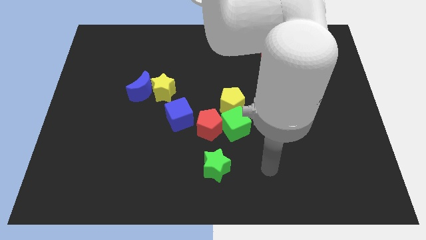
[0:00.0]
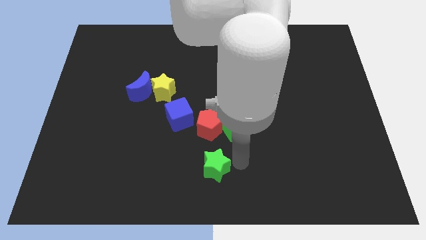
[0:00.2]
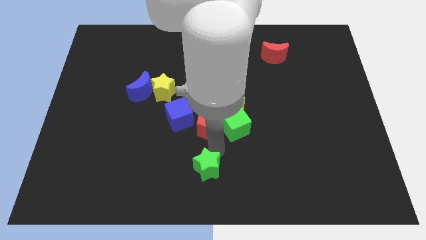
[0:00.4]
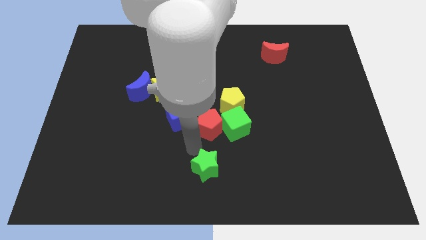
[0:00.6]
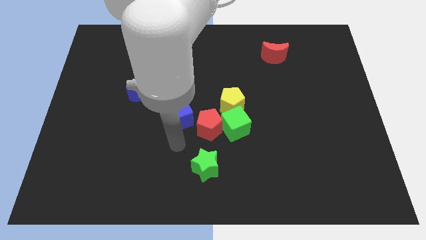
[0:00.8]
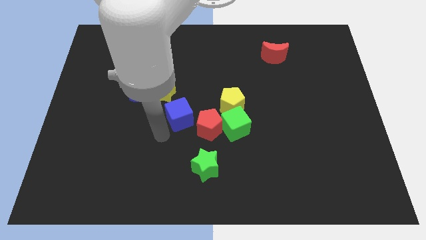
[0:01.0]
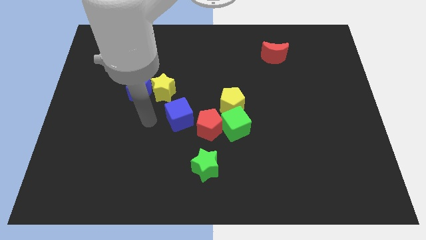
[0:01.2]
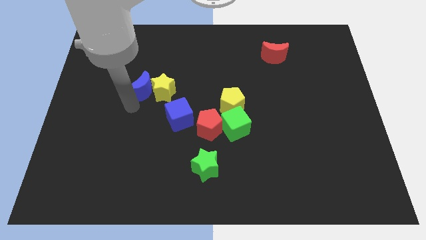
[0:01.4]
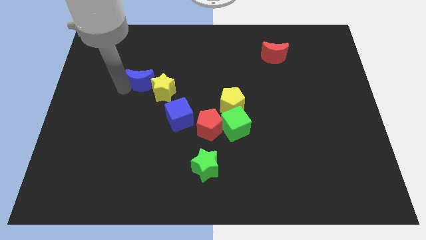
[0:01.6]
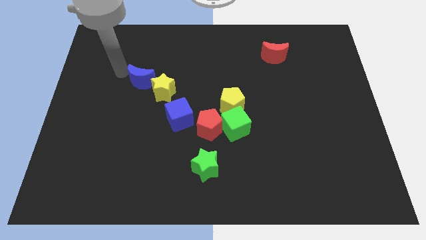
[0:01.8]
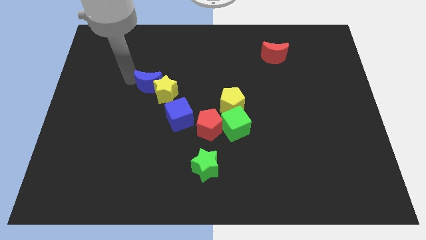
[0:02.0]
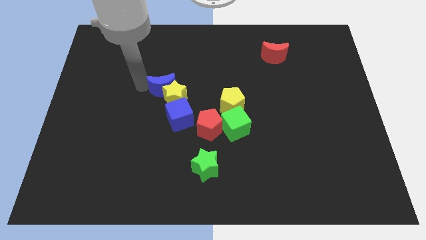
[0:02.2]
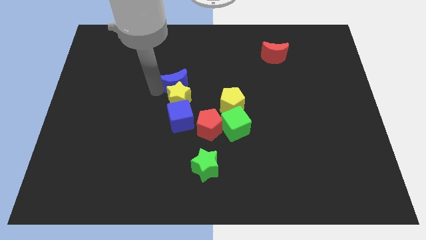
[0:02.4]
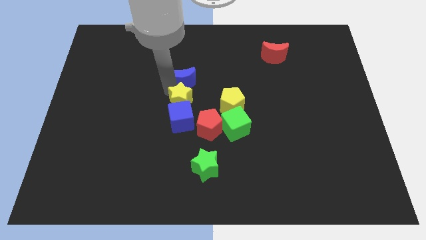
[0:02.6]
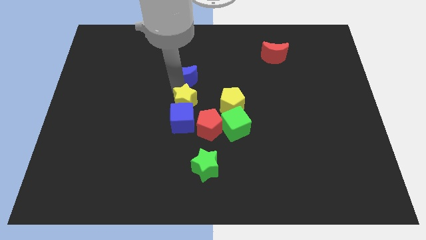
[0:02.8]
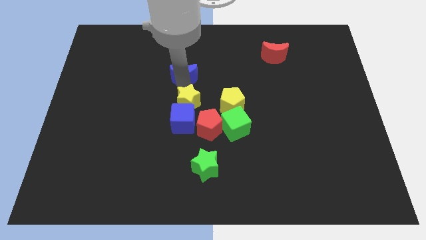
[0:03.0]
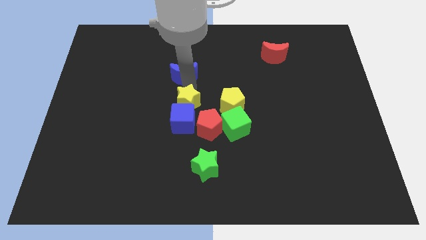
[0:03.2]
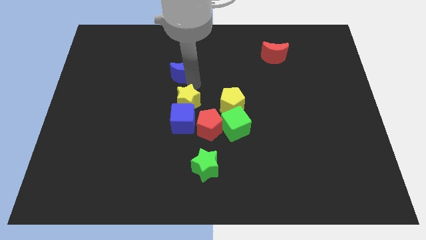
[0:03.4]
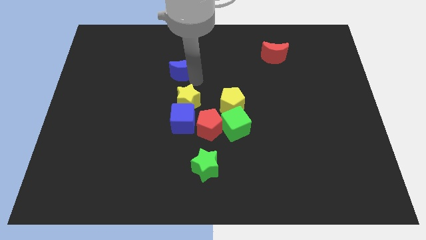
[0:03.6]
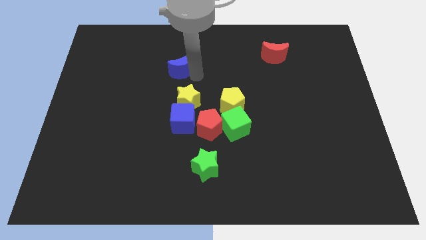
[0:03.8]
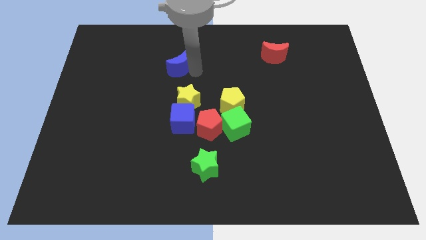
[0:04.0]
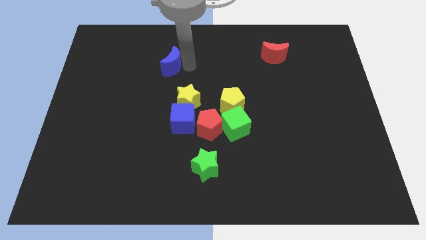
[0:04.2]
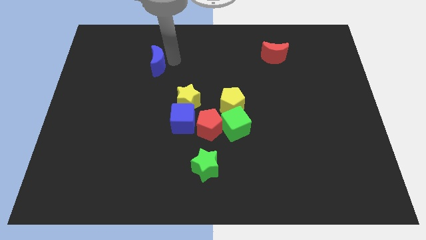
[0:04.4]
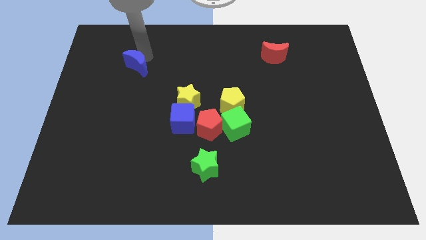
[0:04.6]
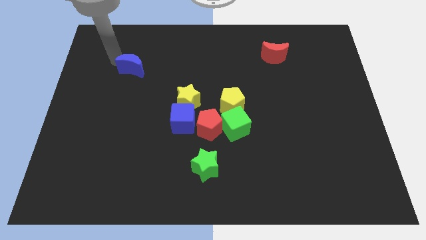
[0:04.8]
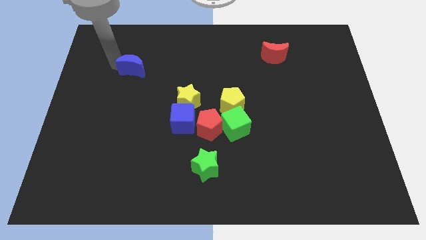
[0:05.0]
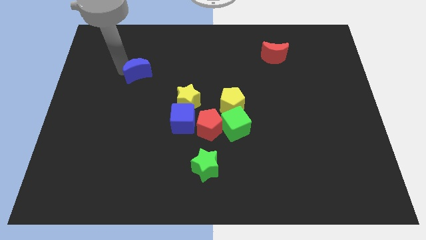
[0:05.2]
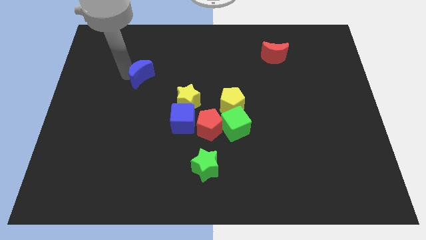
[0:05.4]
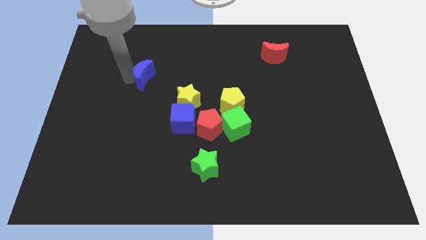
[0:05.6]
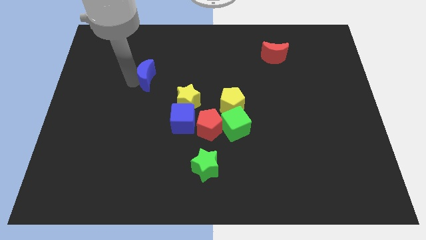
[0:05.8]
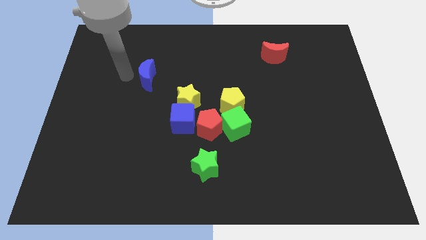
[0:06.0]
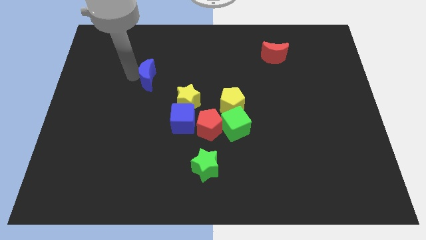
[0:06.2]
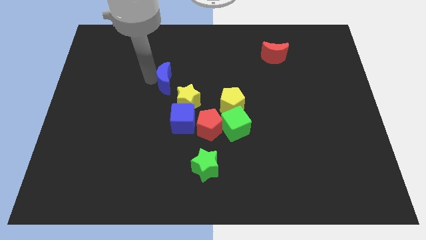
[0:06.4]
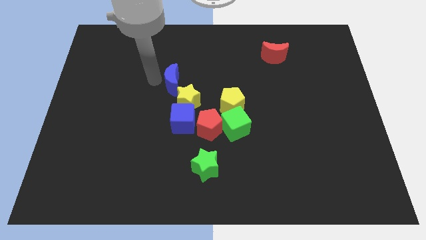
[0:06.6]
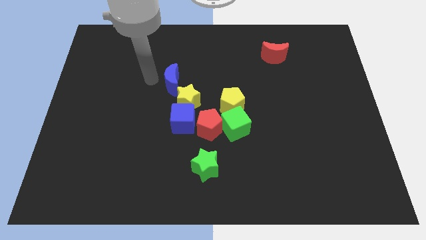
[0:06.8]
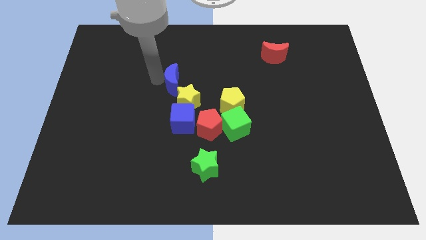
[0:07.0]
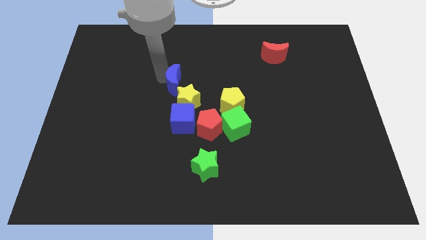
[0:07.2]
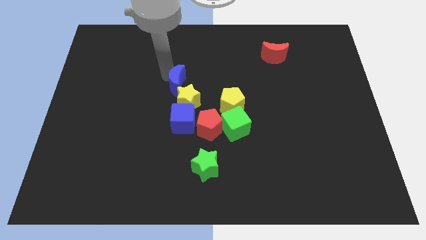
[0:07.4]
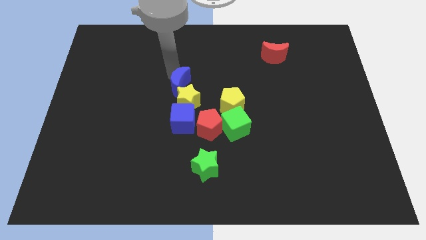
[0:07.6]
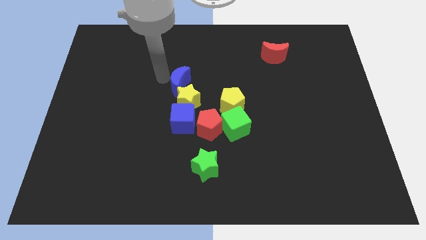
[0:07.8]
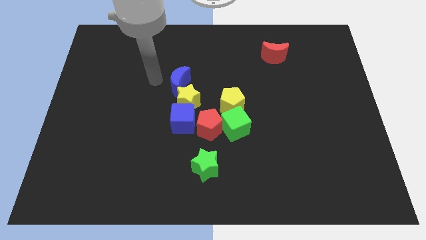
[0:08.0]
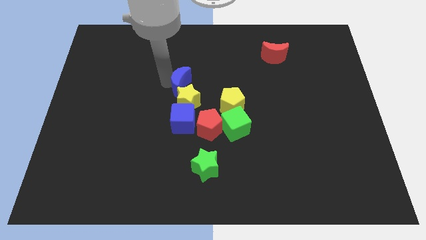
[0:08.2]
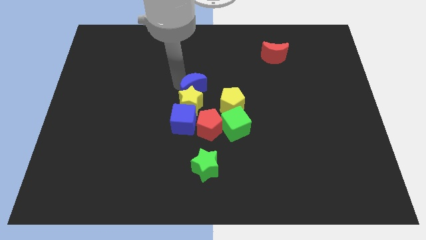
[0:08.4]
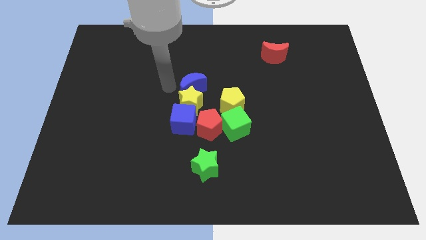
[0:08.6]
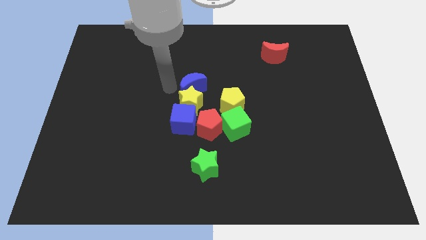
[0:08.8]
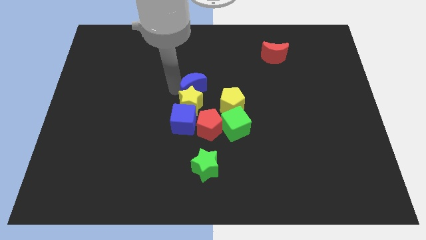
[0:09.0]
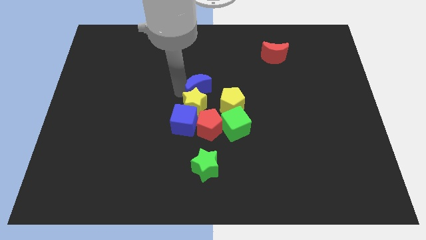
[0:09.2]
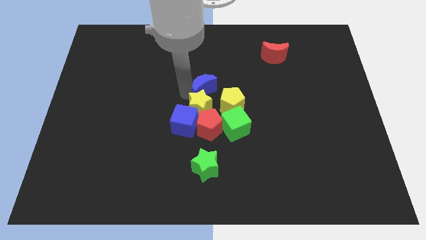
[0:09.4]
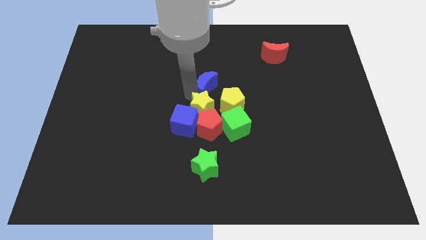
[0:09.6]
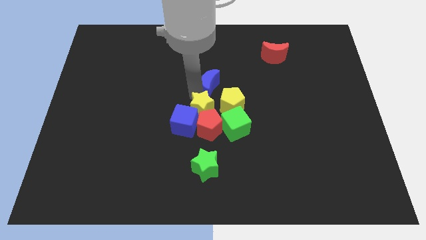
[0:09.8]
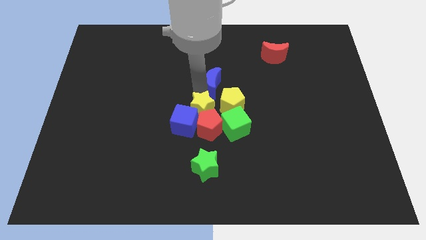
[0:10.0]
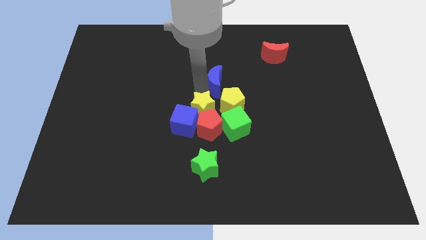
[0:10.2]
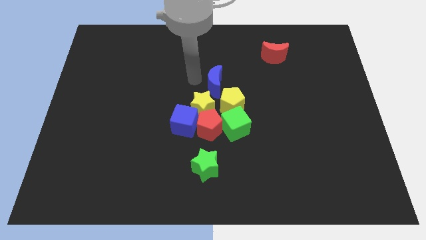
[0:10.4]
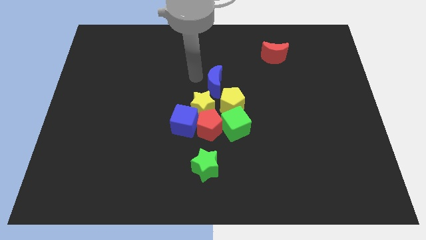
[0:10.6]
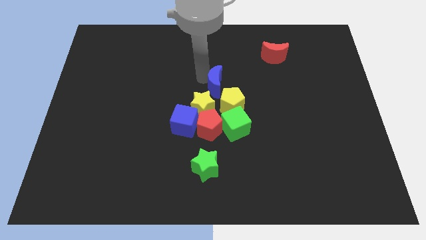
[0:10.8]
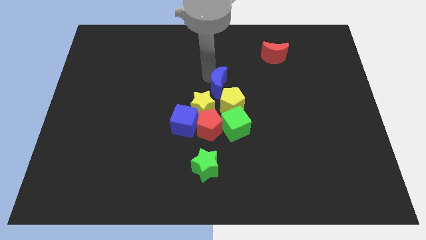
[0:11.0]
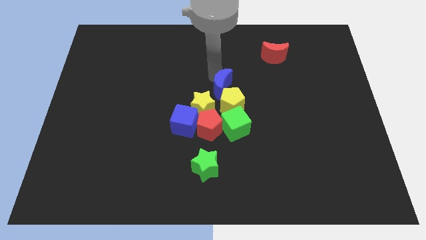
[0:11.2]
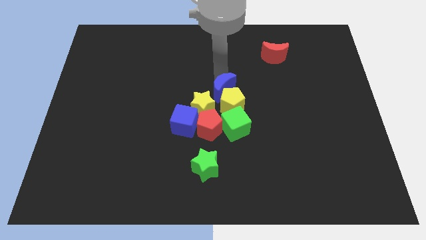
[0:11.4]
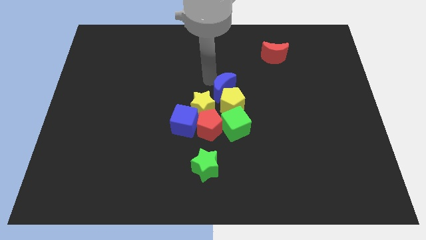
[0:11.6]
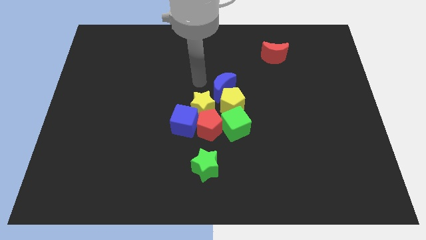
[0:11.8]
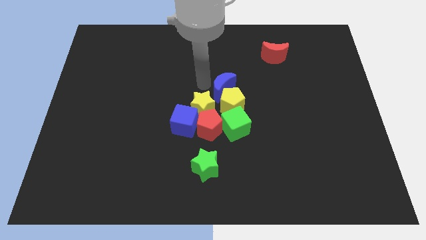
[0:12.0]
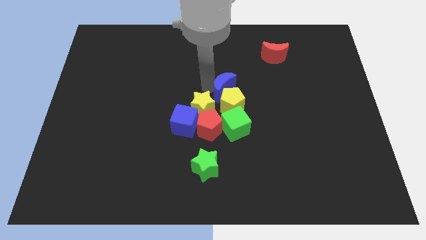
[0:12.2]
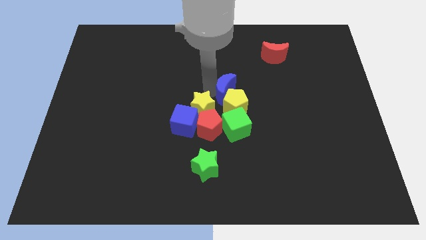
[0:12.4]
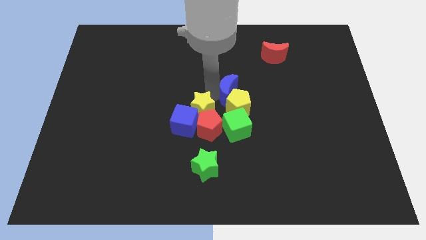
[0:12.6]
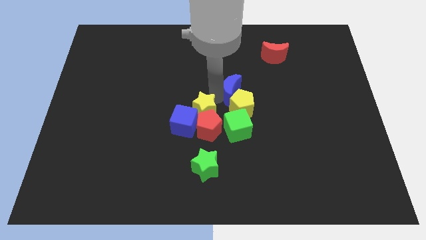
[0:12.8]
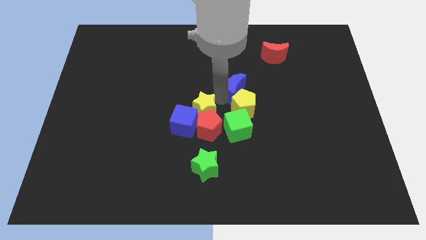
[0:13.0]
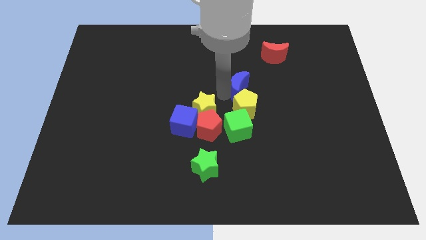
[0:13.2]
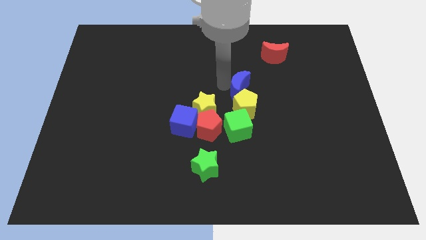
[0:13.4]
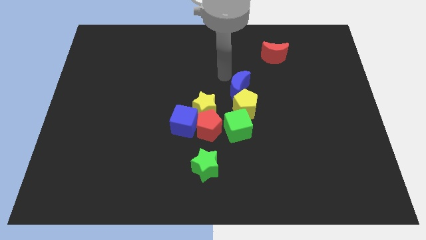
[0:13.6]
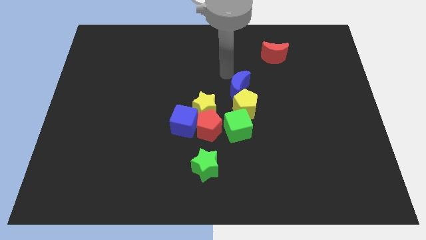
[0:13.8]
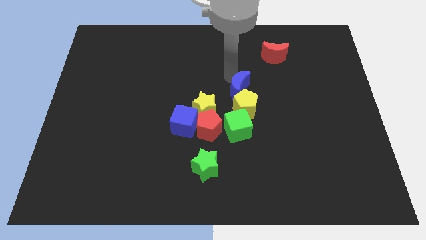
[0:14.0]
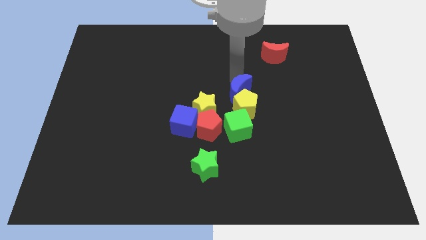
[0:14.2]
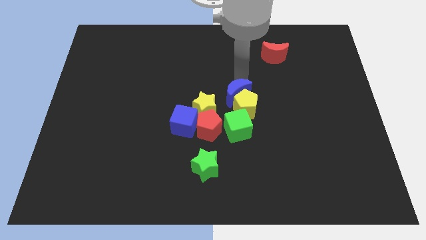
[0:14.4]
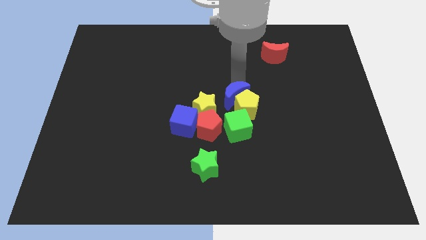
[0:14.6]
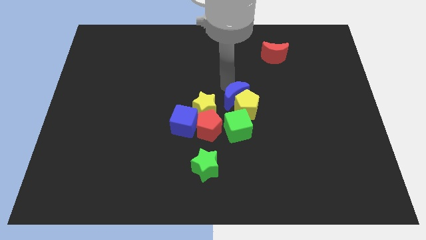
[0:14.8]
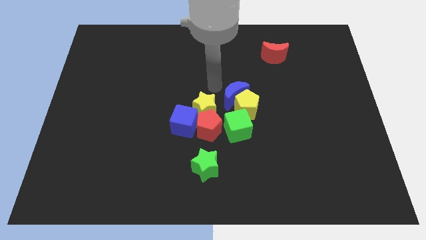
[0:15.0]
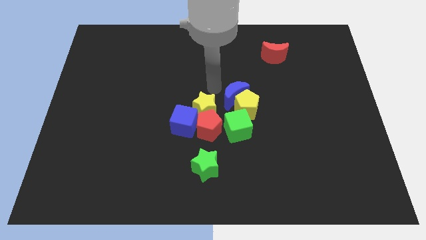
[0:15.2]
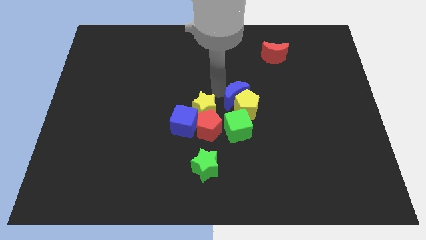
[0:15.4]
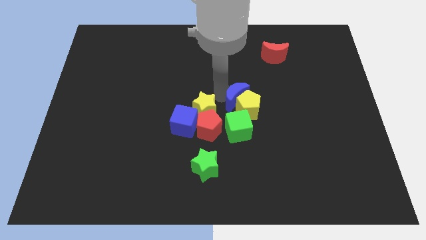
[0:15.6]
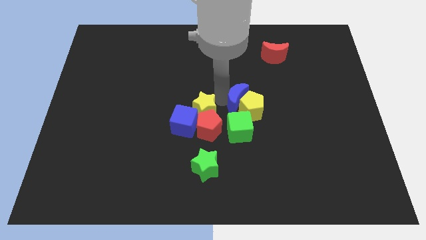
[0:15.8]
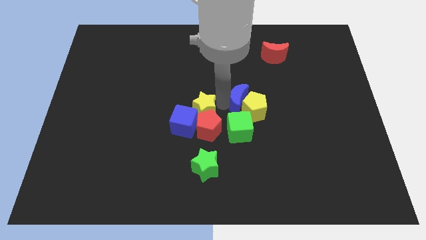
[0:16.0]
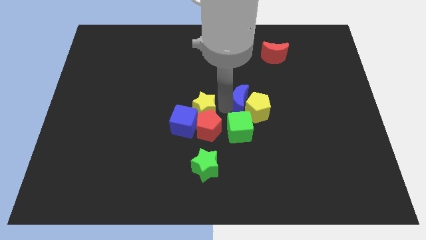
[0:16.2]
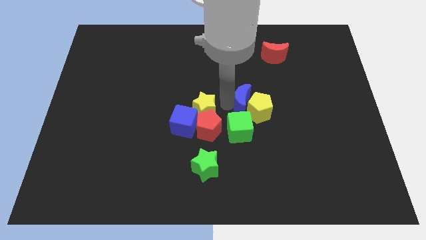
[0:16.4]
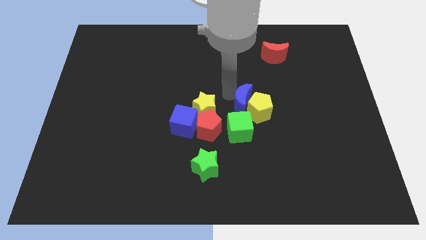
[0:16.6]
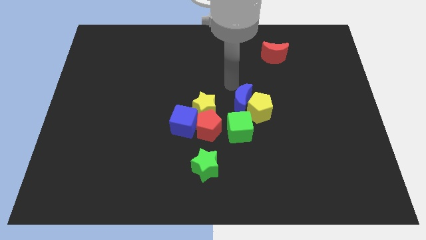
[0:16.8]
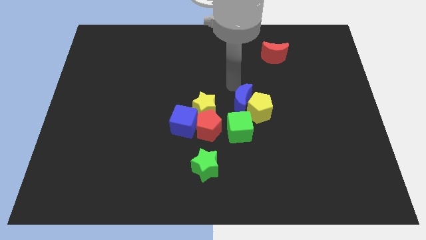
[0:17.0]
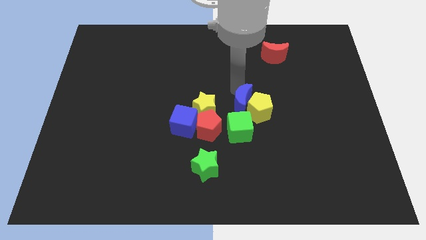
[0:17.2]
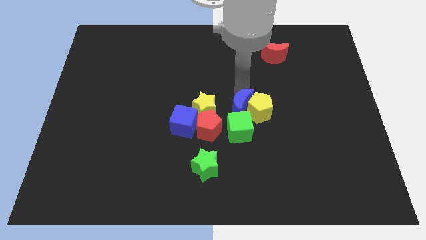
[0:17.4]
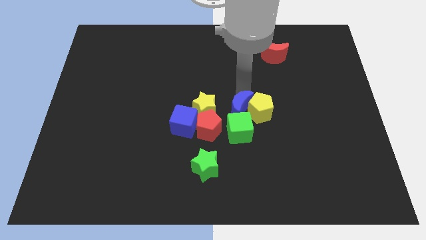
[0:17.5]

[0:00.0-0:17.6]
slide the blue moon right of the blue cube
